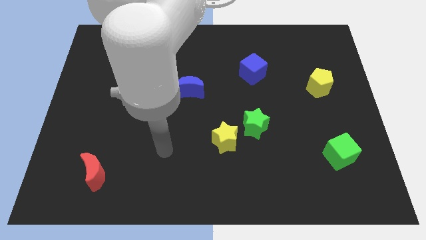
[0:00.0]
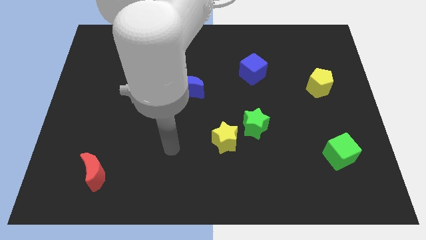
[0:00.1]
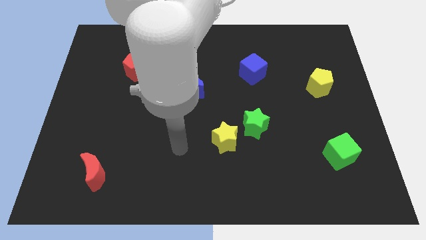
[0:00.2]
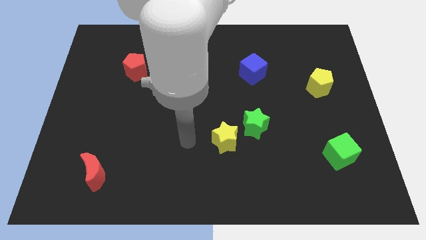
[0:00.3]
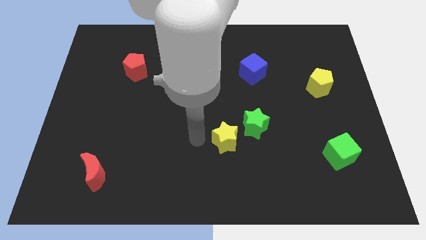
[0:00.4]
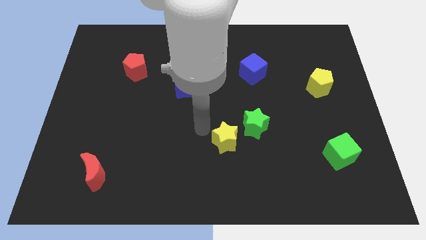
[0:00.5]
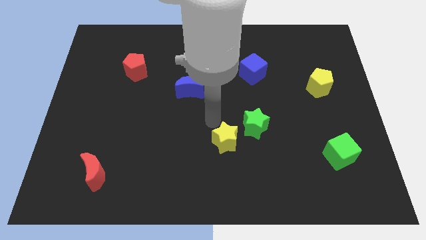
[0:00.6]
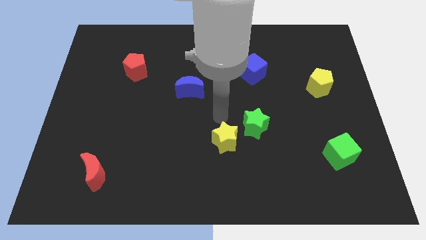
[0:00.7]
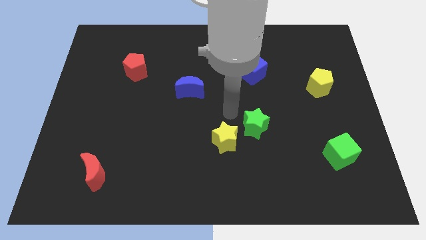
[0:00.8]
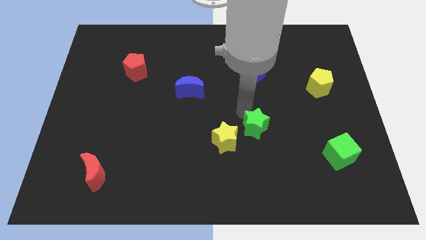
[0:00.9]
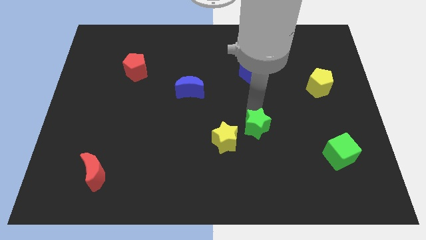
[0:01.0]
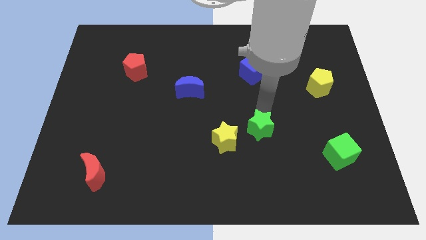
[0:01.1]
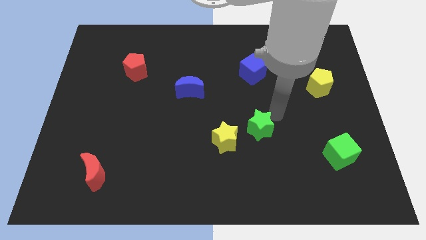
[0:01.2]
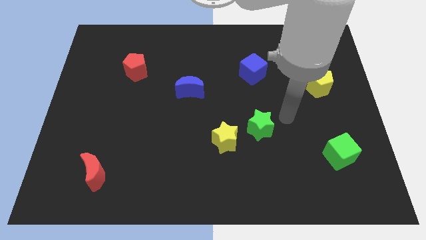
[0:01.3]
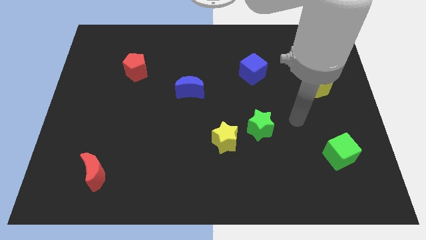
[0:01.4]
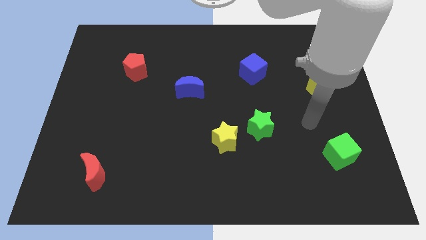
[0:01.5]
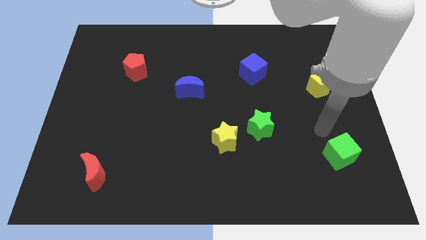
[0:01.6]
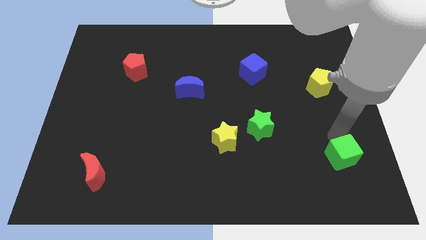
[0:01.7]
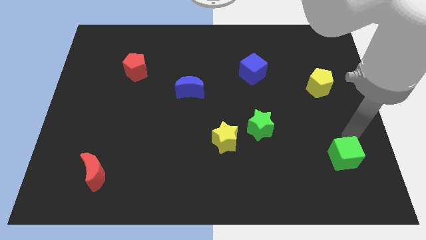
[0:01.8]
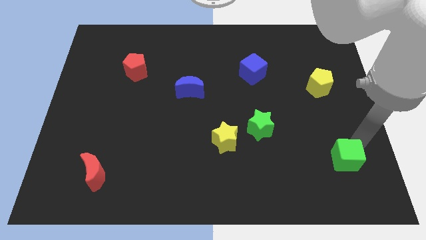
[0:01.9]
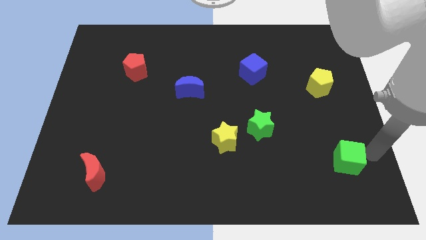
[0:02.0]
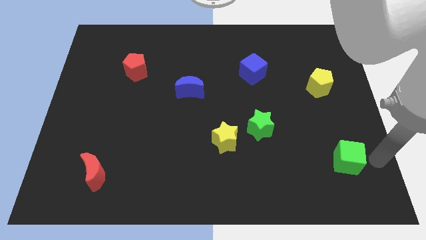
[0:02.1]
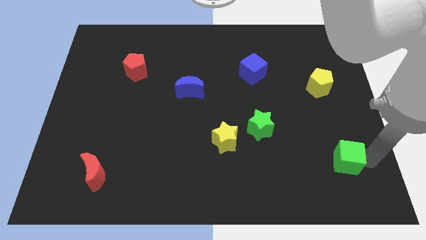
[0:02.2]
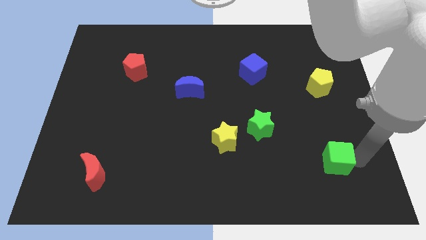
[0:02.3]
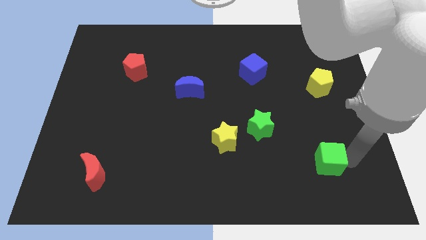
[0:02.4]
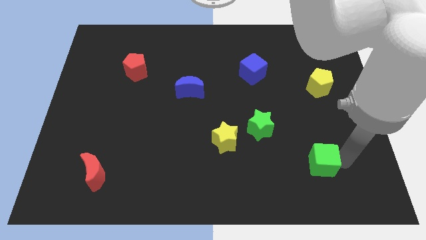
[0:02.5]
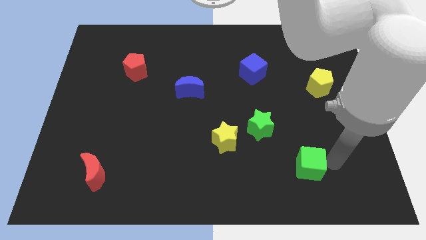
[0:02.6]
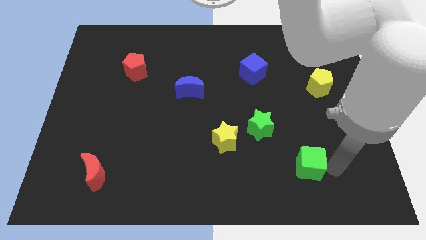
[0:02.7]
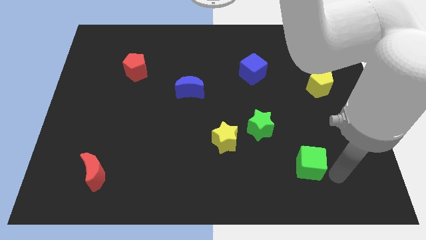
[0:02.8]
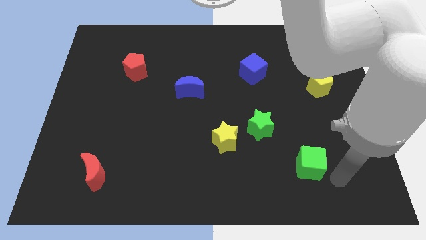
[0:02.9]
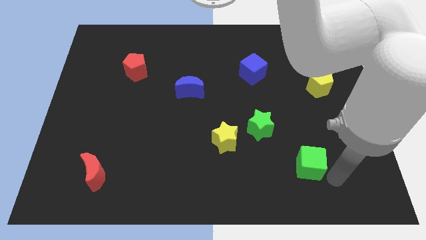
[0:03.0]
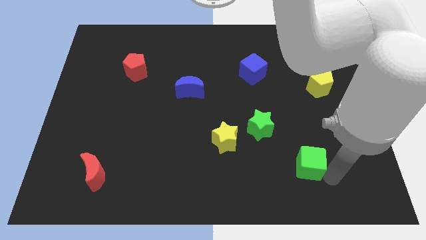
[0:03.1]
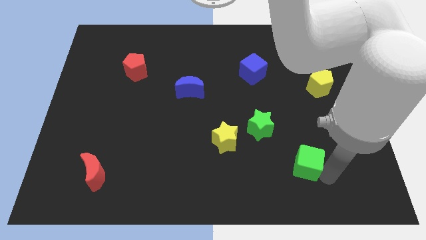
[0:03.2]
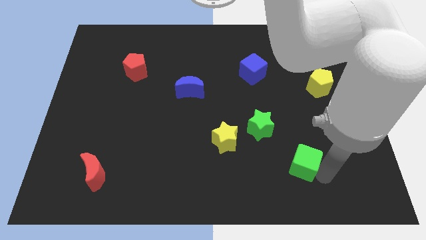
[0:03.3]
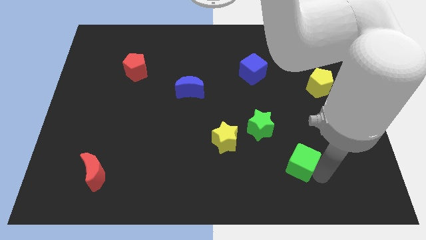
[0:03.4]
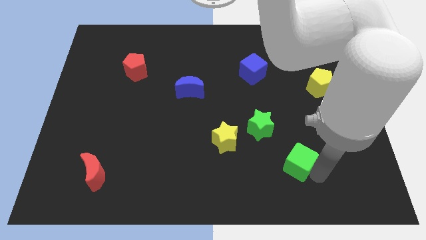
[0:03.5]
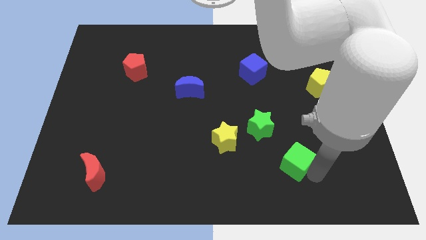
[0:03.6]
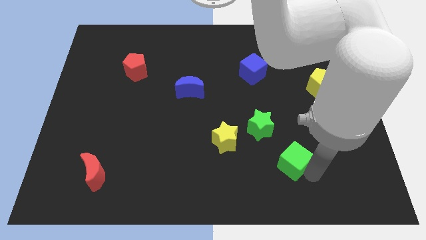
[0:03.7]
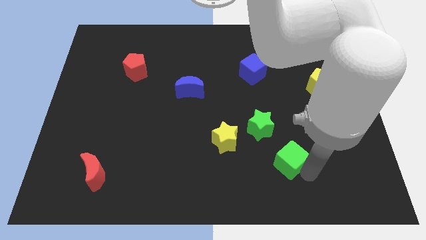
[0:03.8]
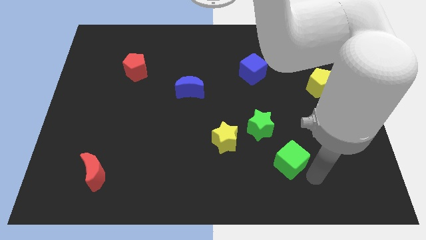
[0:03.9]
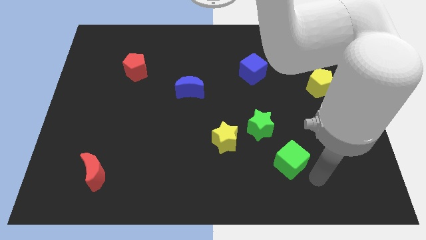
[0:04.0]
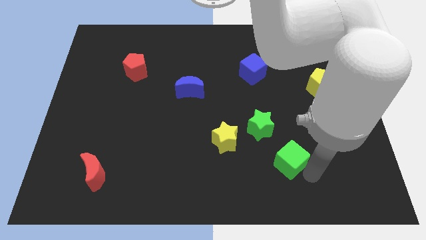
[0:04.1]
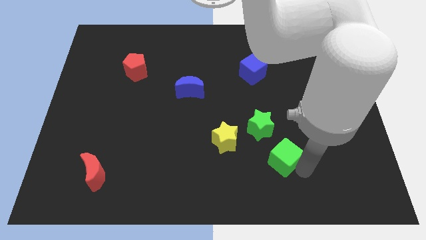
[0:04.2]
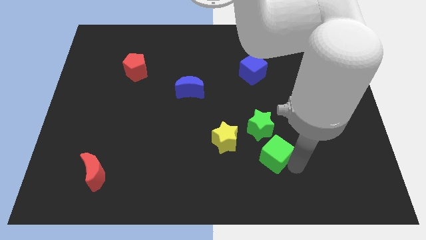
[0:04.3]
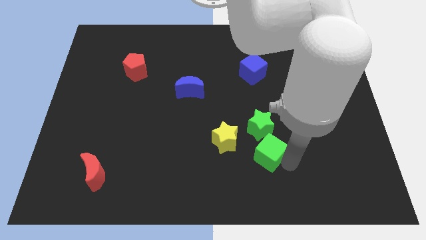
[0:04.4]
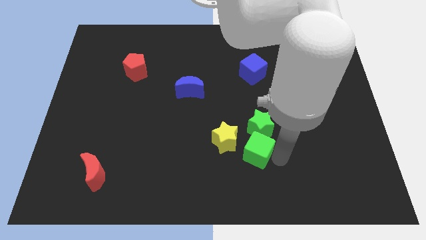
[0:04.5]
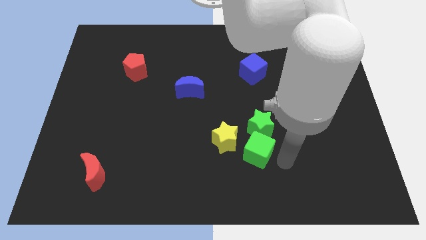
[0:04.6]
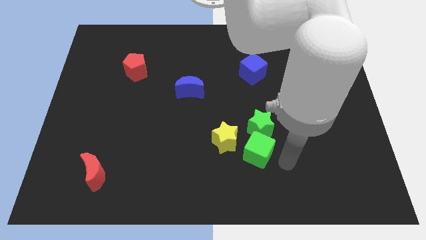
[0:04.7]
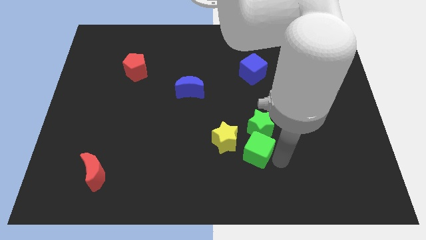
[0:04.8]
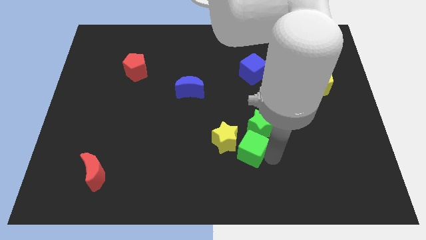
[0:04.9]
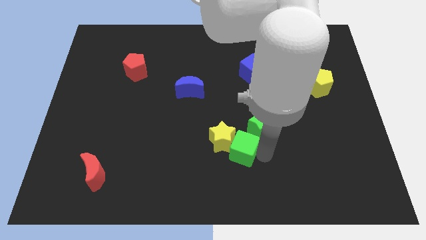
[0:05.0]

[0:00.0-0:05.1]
push the green cube towards the yellow star

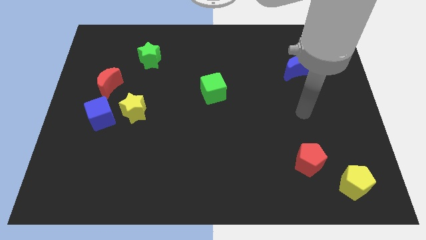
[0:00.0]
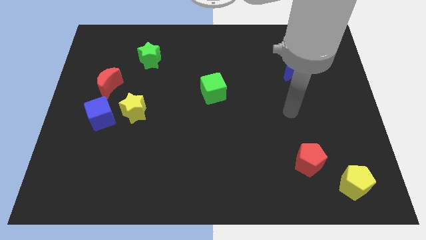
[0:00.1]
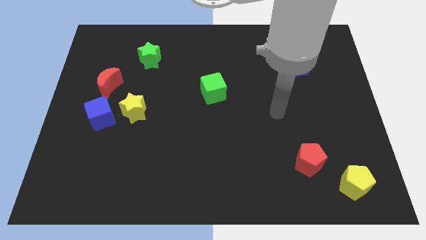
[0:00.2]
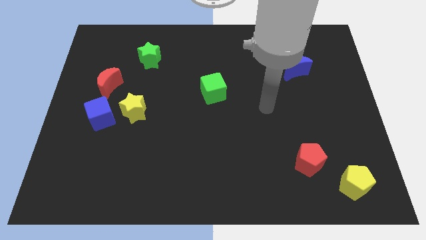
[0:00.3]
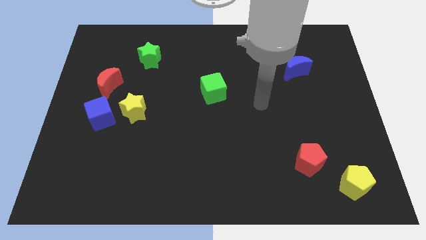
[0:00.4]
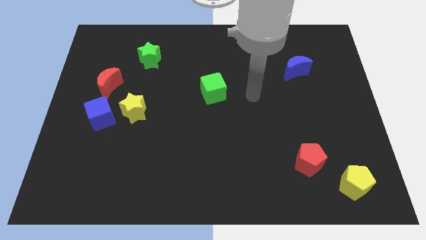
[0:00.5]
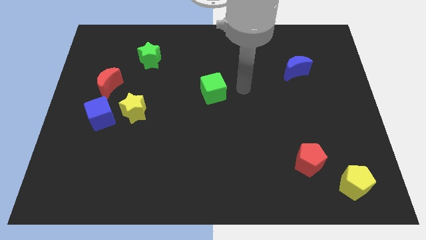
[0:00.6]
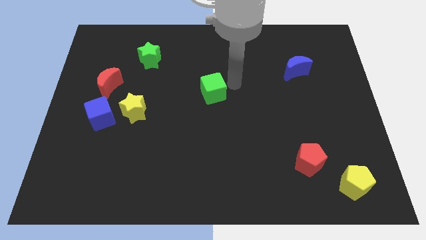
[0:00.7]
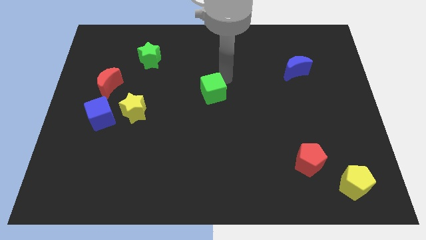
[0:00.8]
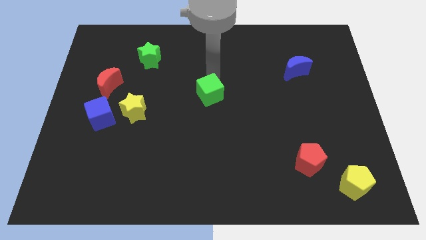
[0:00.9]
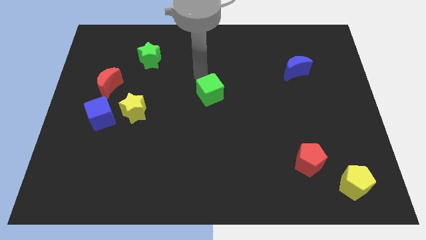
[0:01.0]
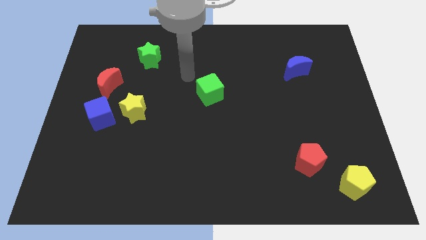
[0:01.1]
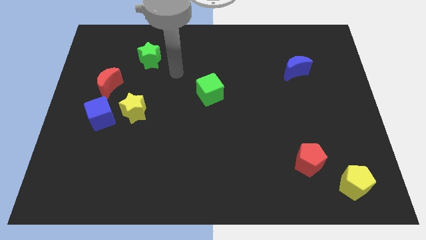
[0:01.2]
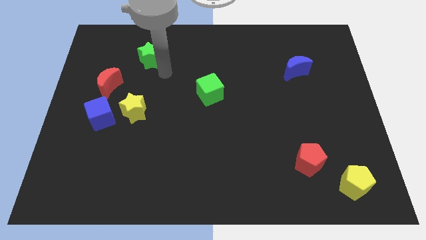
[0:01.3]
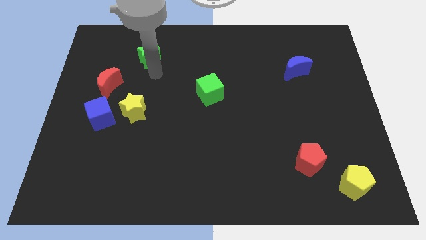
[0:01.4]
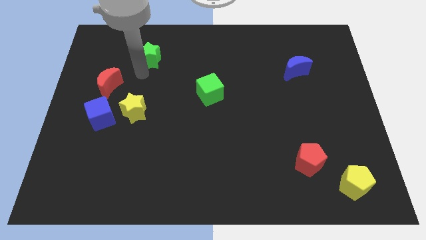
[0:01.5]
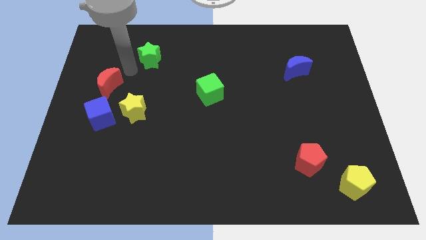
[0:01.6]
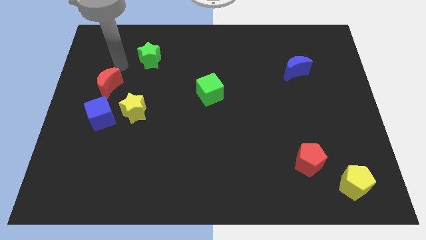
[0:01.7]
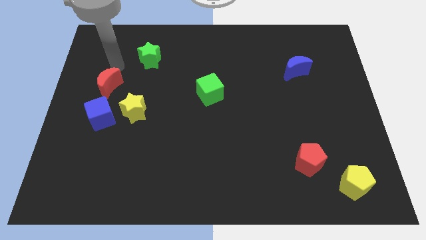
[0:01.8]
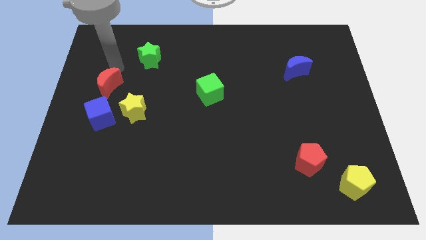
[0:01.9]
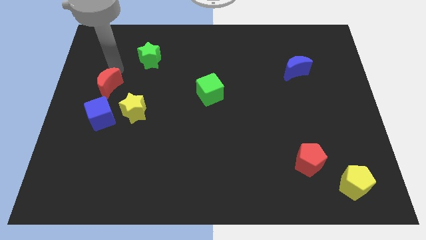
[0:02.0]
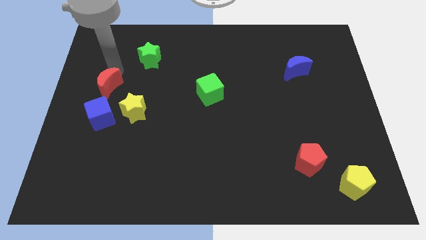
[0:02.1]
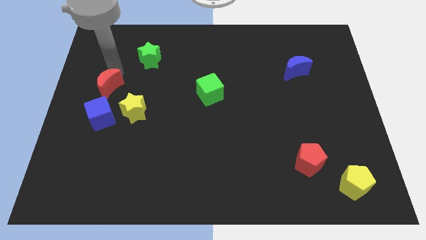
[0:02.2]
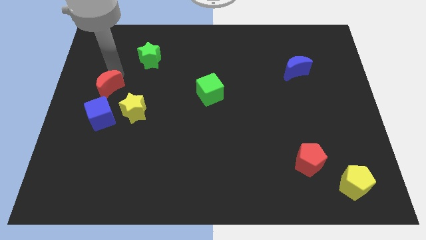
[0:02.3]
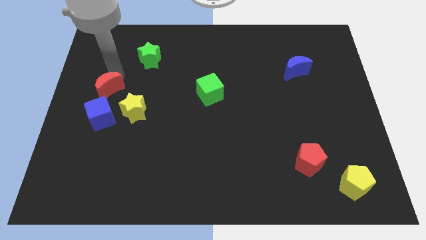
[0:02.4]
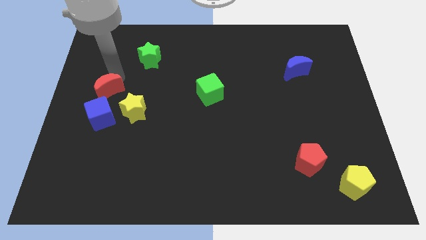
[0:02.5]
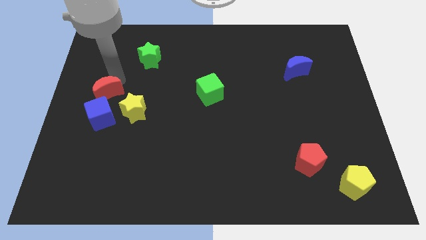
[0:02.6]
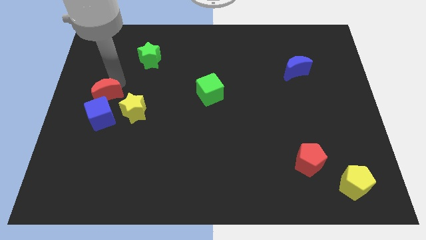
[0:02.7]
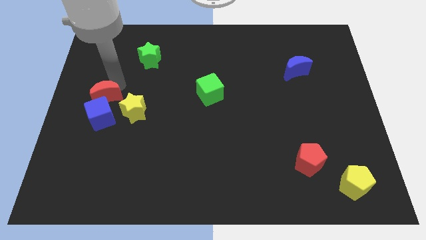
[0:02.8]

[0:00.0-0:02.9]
move the red moon next to the blue cube
